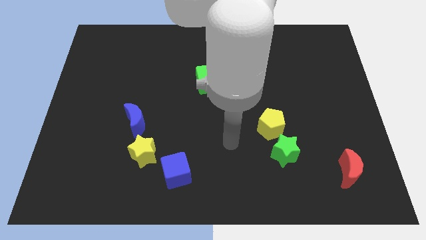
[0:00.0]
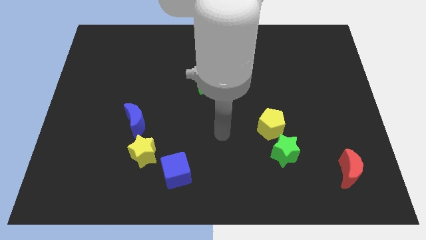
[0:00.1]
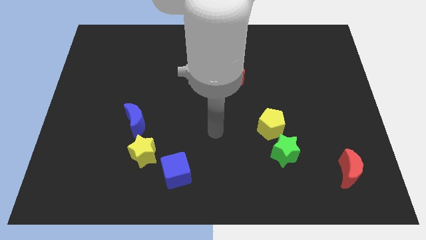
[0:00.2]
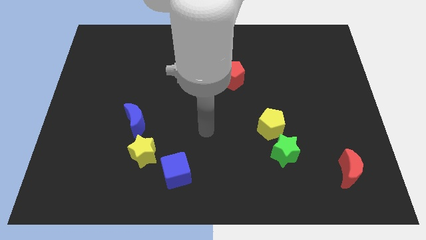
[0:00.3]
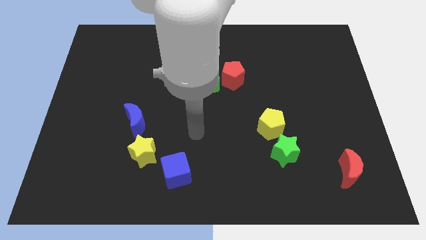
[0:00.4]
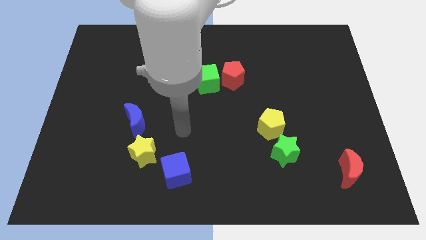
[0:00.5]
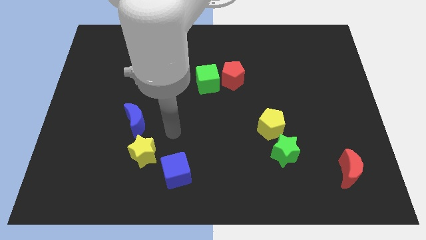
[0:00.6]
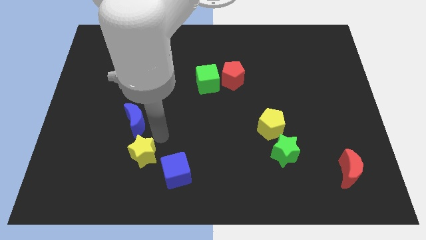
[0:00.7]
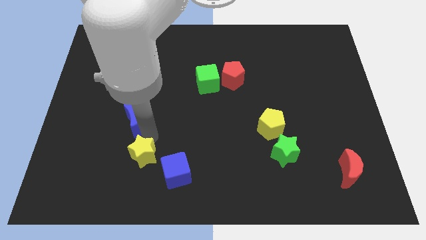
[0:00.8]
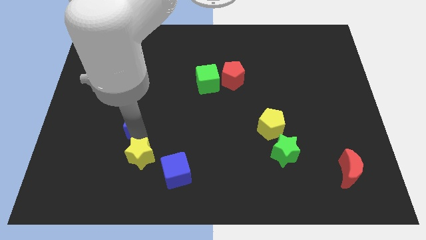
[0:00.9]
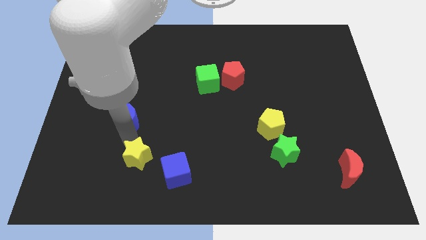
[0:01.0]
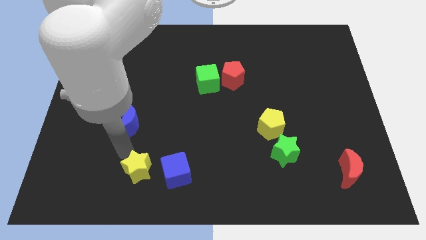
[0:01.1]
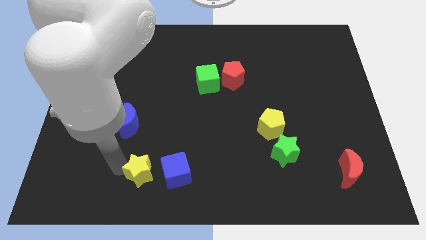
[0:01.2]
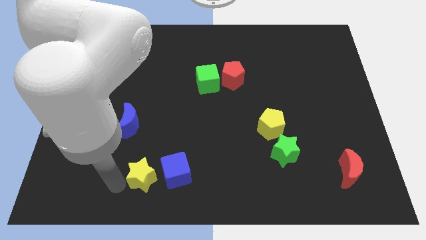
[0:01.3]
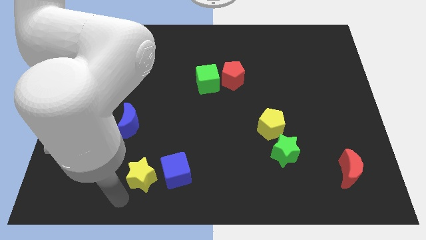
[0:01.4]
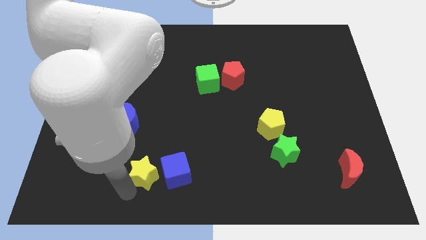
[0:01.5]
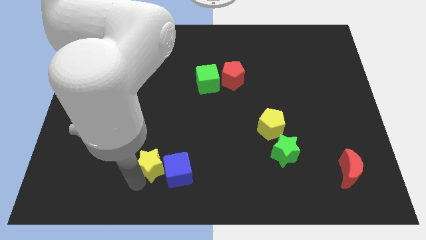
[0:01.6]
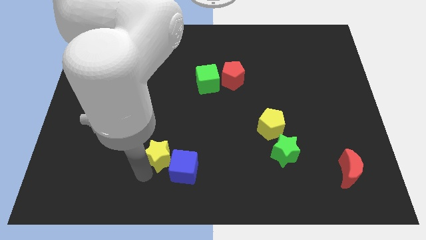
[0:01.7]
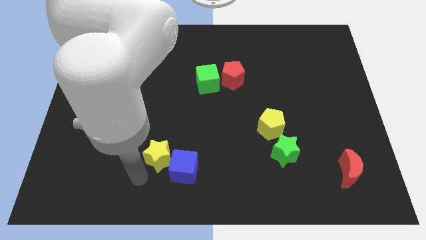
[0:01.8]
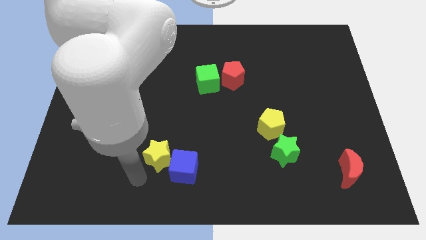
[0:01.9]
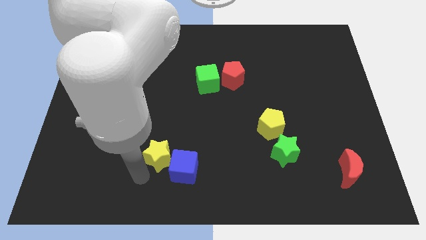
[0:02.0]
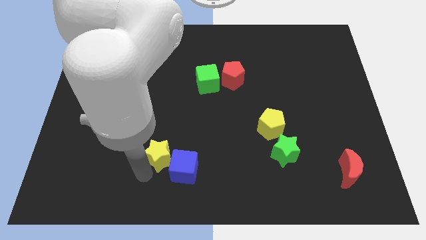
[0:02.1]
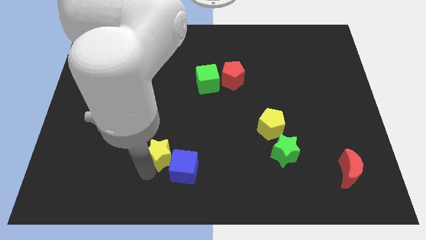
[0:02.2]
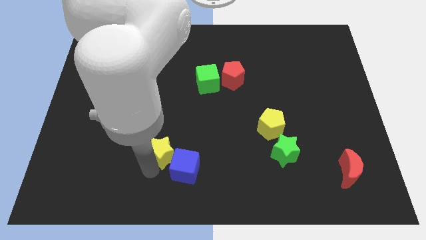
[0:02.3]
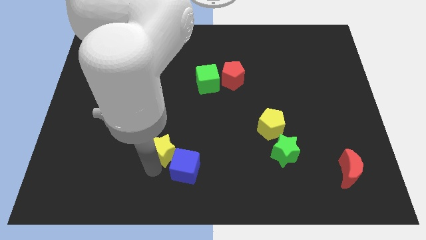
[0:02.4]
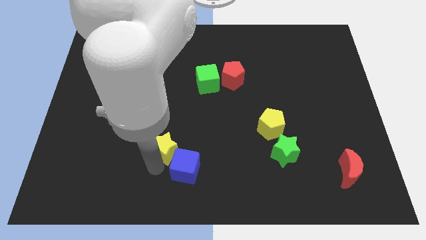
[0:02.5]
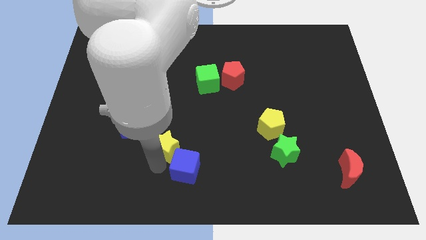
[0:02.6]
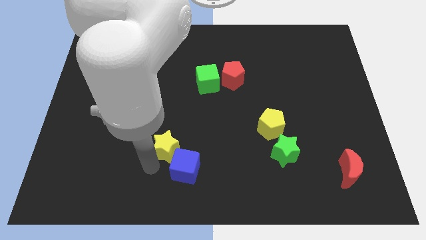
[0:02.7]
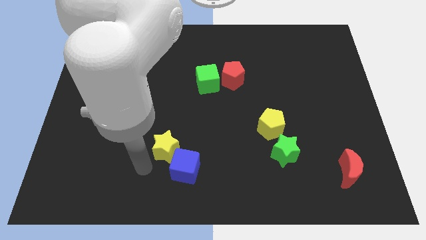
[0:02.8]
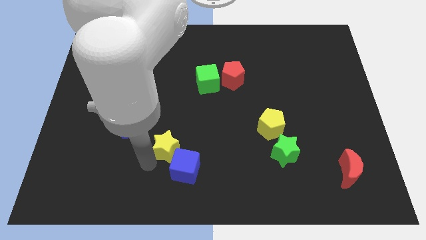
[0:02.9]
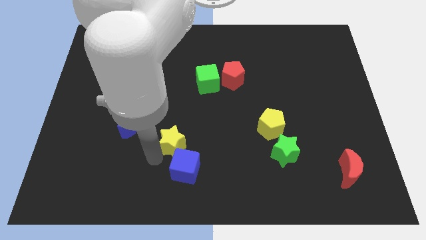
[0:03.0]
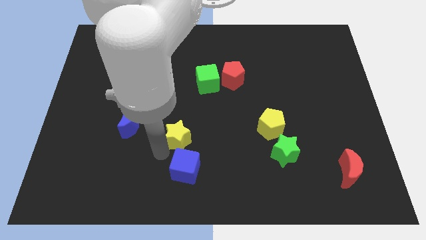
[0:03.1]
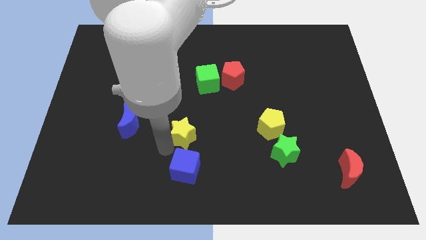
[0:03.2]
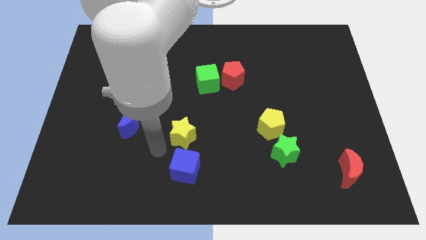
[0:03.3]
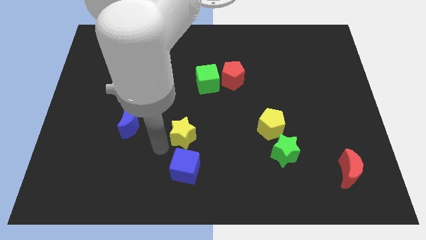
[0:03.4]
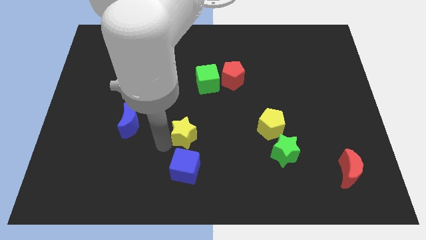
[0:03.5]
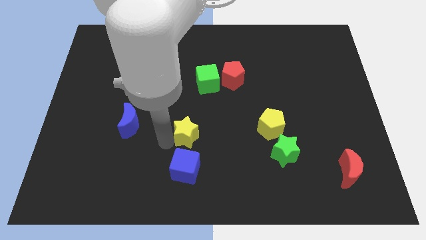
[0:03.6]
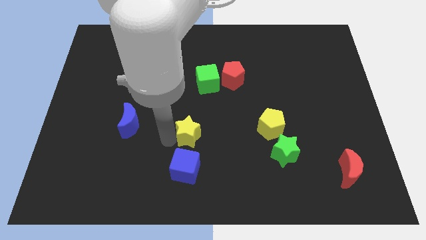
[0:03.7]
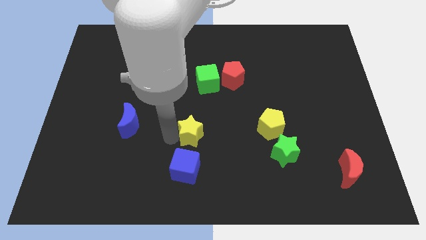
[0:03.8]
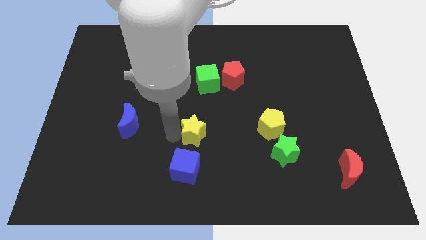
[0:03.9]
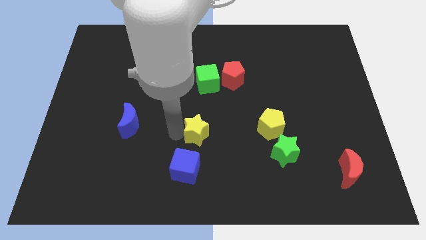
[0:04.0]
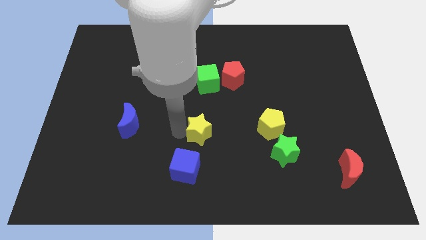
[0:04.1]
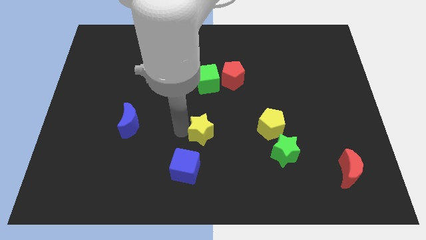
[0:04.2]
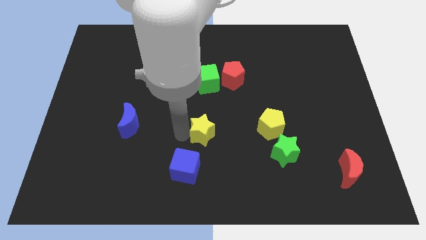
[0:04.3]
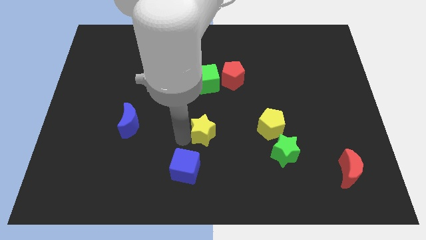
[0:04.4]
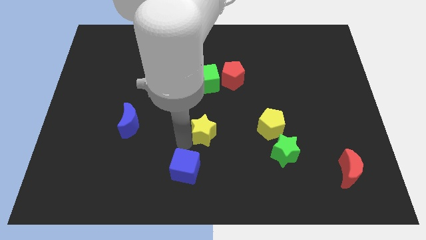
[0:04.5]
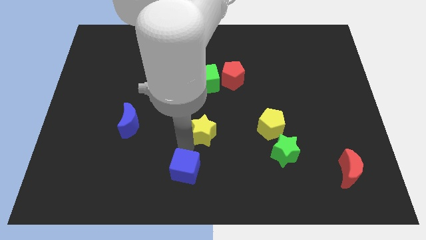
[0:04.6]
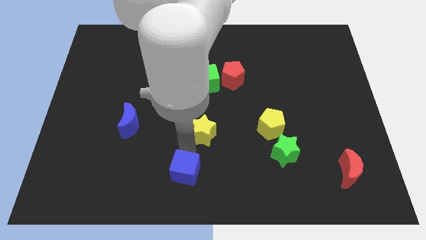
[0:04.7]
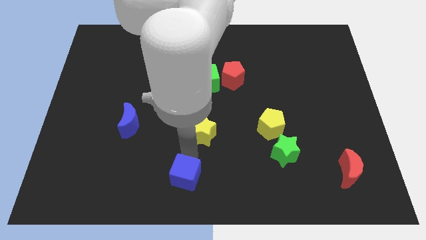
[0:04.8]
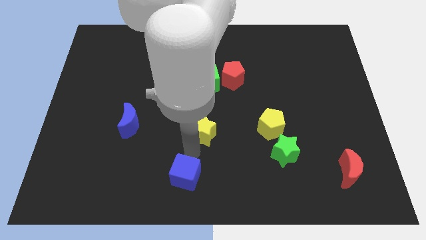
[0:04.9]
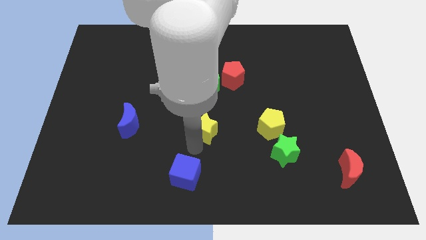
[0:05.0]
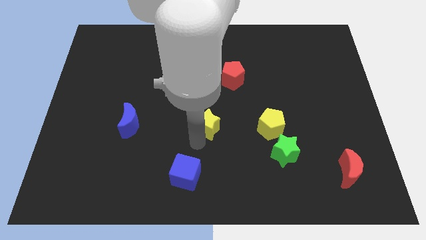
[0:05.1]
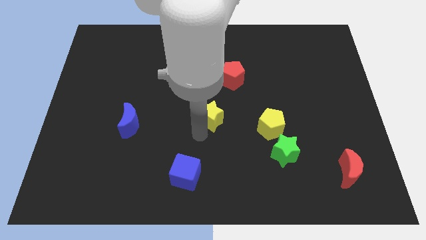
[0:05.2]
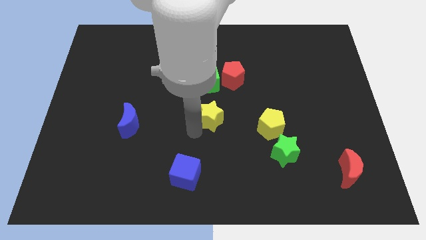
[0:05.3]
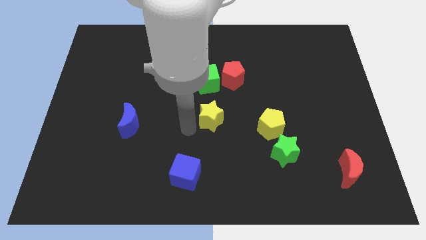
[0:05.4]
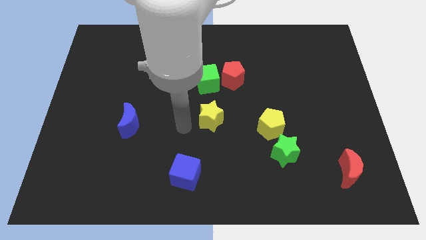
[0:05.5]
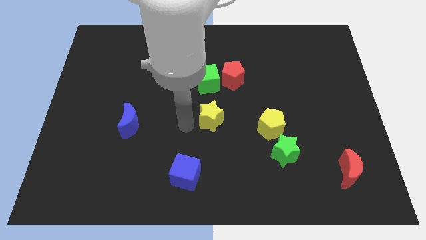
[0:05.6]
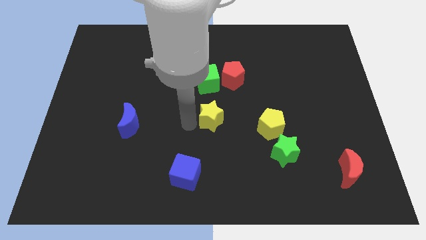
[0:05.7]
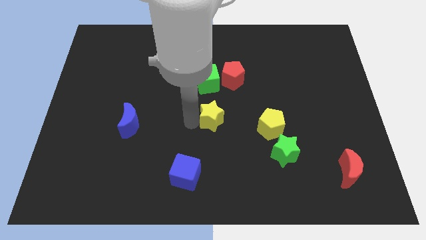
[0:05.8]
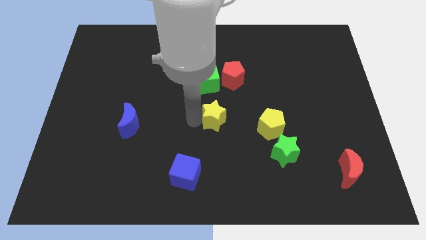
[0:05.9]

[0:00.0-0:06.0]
put the yellow star below the red pentagon
